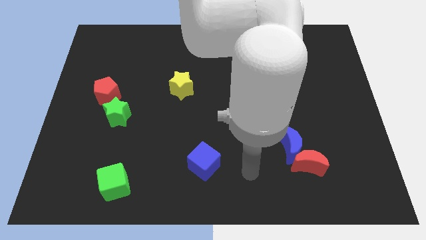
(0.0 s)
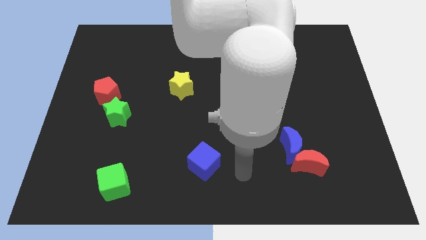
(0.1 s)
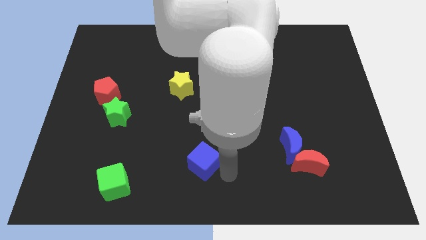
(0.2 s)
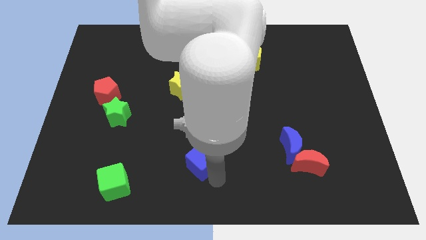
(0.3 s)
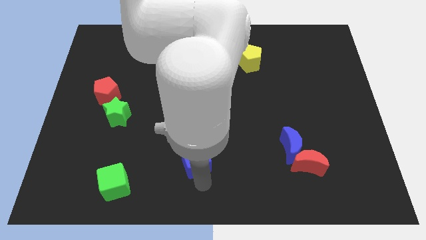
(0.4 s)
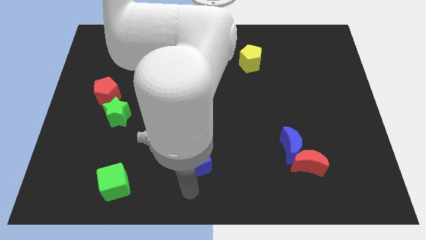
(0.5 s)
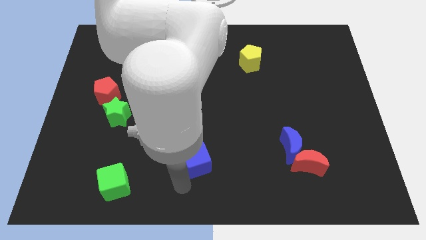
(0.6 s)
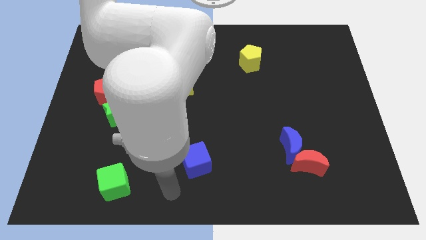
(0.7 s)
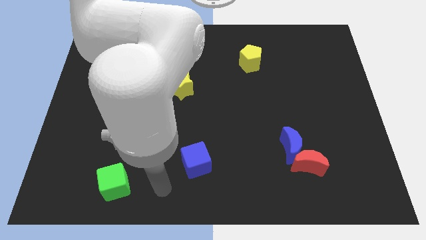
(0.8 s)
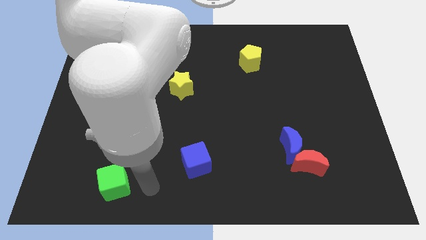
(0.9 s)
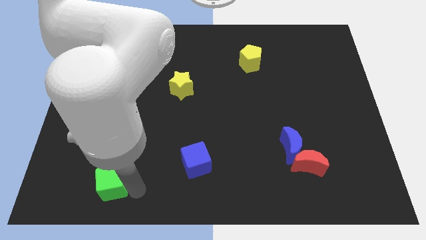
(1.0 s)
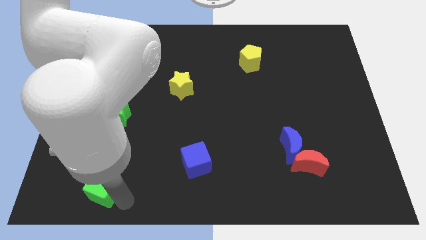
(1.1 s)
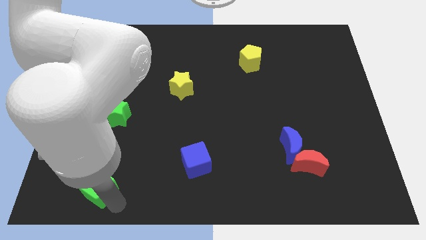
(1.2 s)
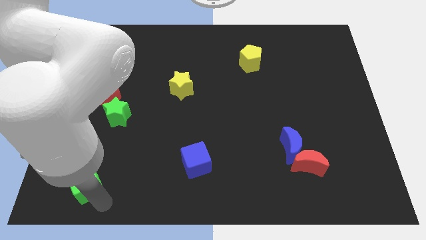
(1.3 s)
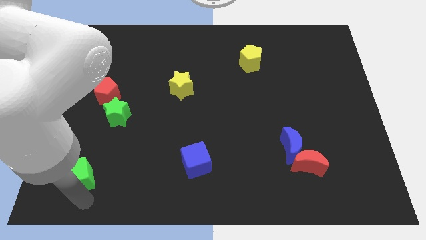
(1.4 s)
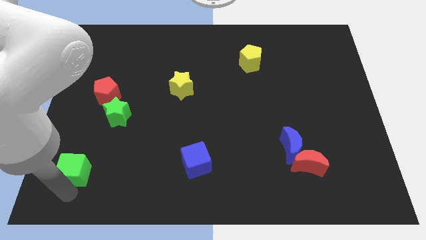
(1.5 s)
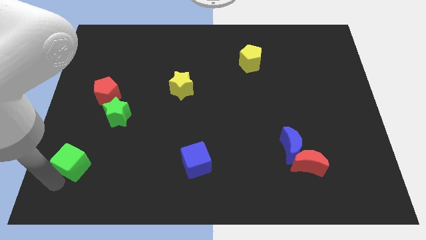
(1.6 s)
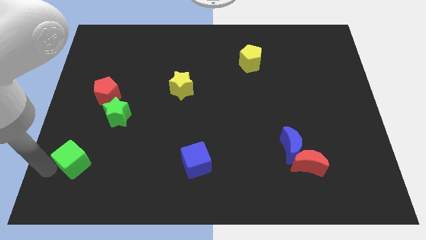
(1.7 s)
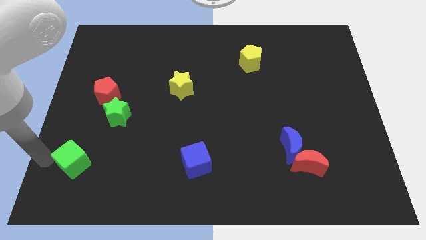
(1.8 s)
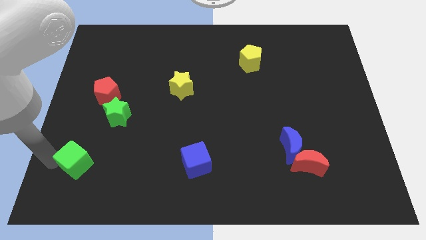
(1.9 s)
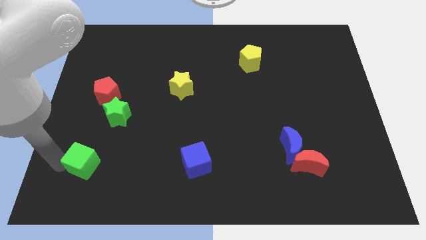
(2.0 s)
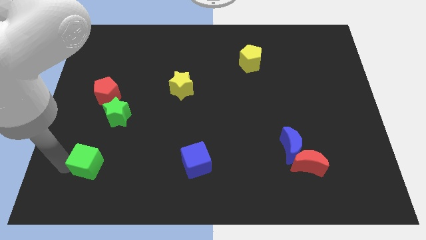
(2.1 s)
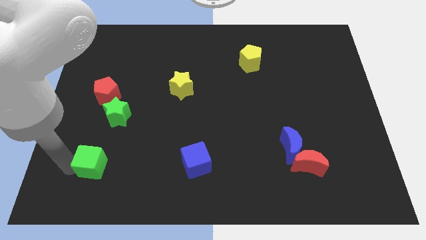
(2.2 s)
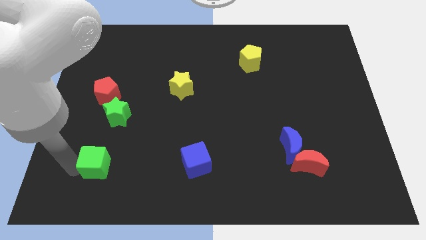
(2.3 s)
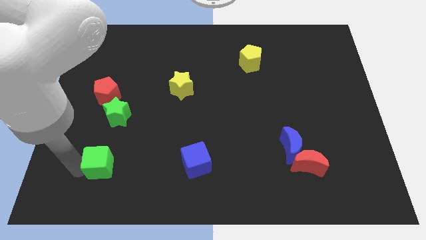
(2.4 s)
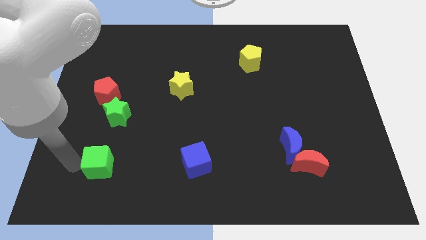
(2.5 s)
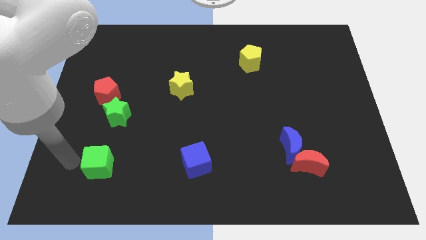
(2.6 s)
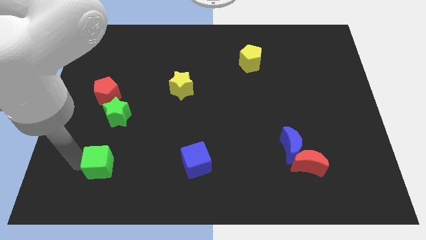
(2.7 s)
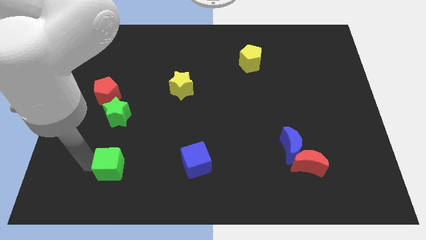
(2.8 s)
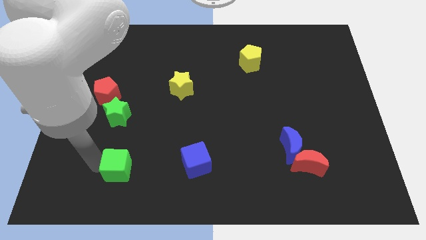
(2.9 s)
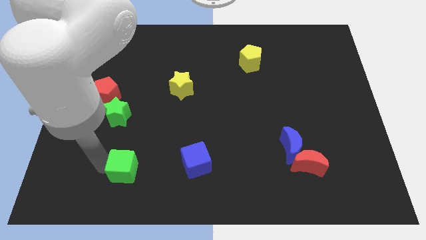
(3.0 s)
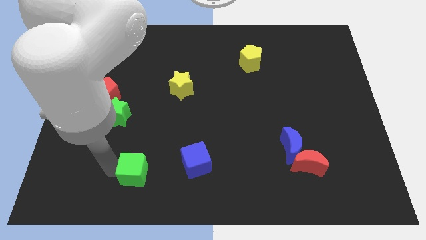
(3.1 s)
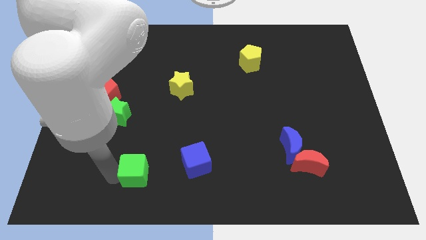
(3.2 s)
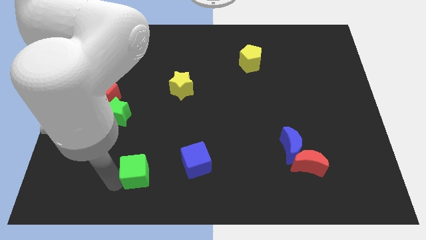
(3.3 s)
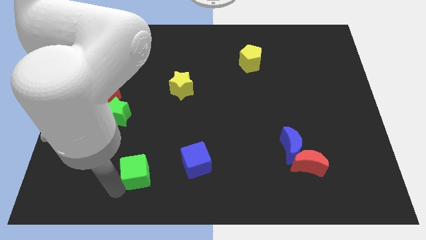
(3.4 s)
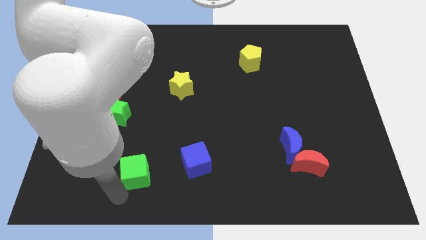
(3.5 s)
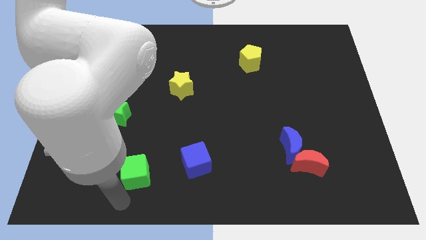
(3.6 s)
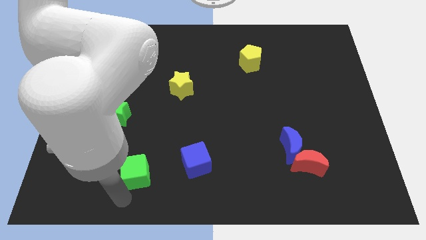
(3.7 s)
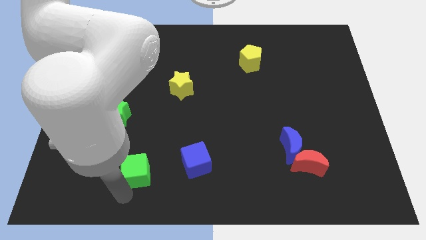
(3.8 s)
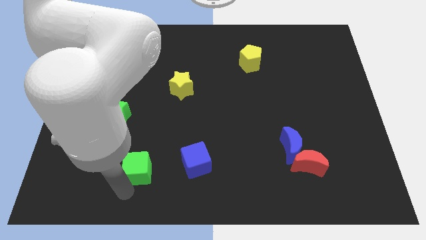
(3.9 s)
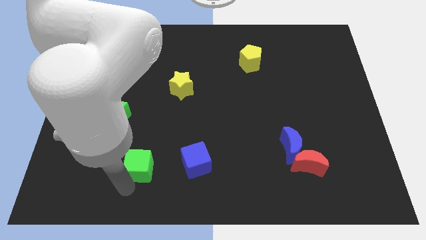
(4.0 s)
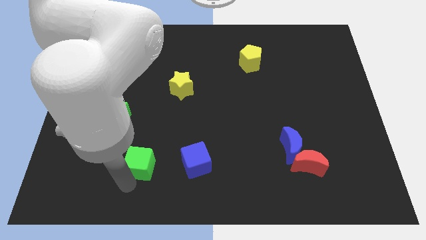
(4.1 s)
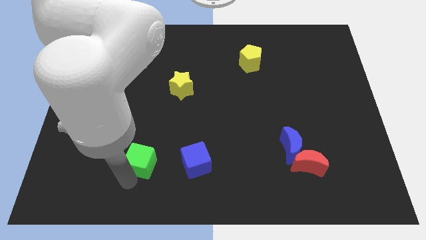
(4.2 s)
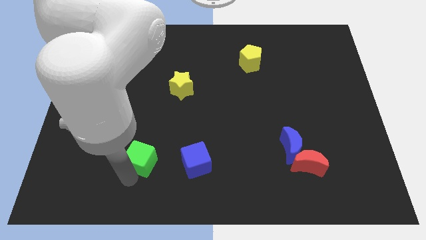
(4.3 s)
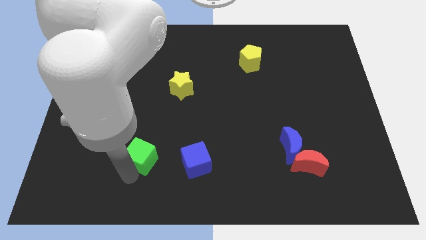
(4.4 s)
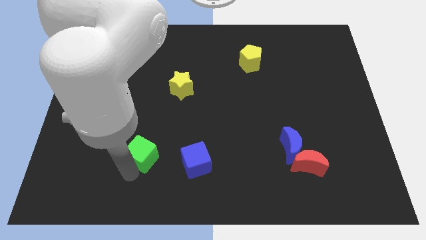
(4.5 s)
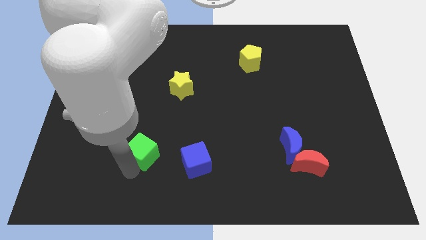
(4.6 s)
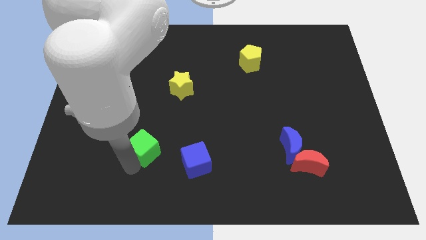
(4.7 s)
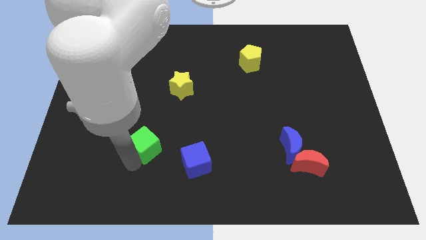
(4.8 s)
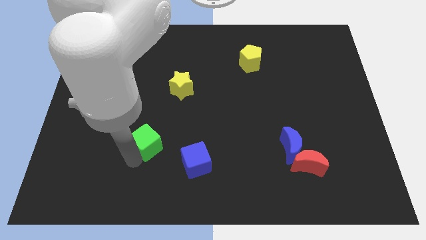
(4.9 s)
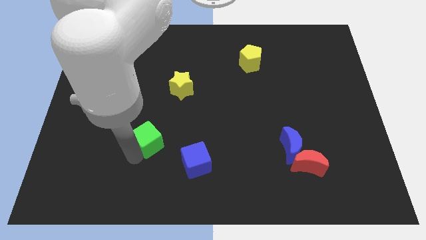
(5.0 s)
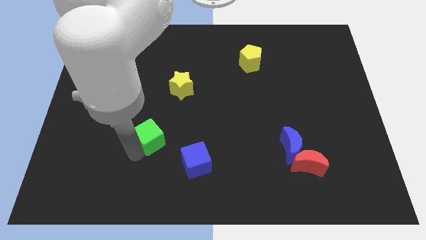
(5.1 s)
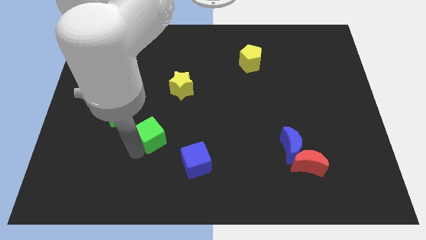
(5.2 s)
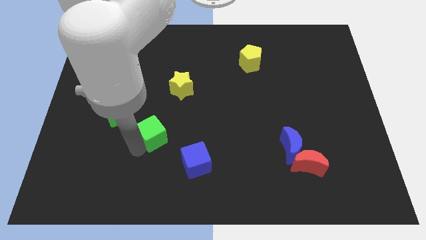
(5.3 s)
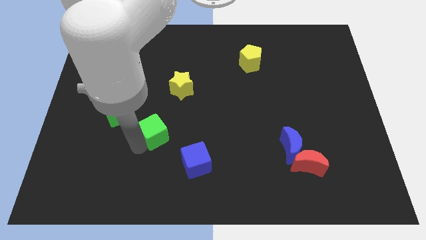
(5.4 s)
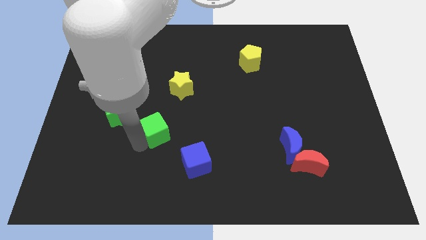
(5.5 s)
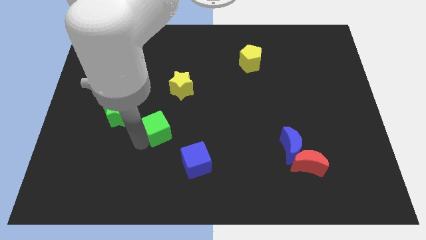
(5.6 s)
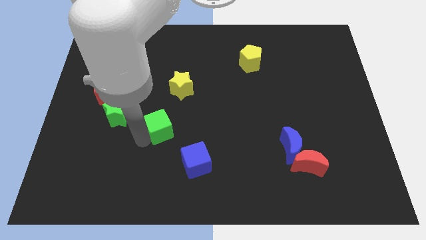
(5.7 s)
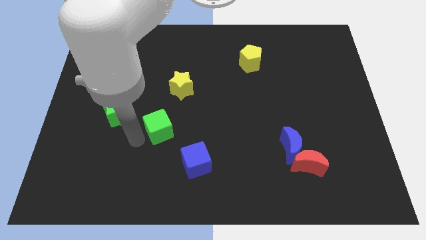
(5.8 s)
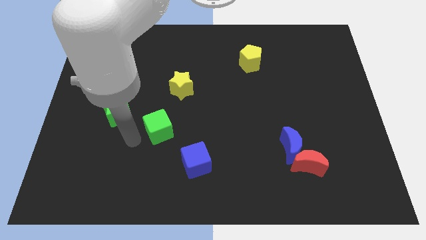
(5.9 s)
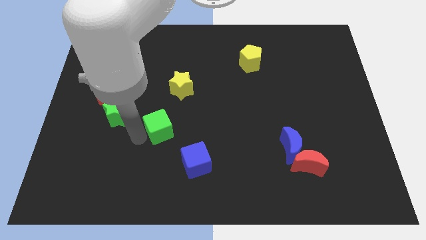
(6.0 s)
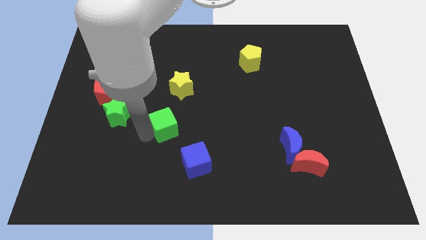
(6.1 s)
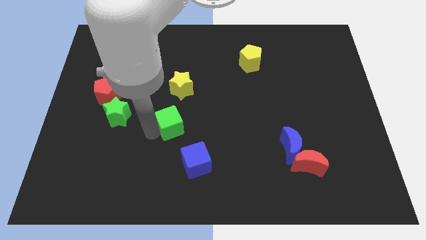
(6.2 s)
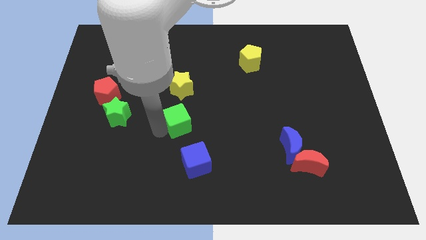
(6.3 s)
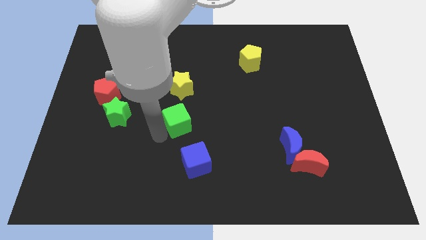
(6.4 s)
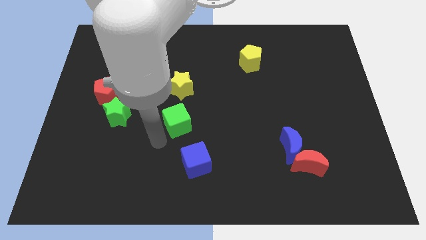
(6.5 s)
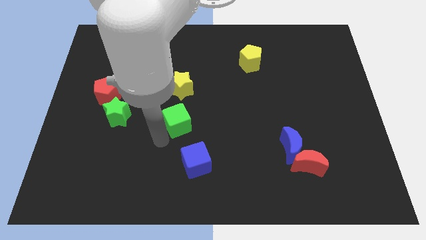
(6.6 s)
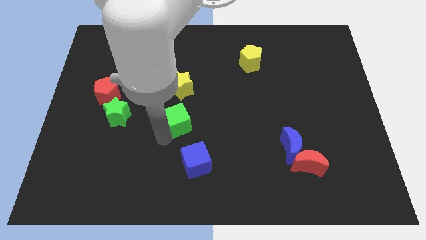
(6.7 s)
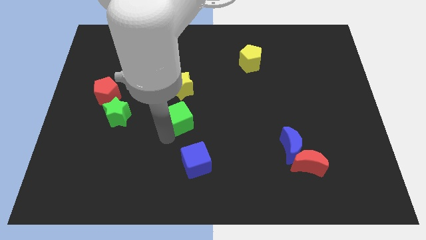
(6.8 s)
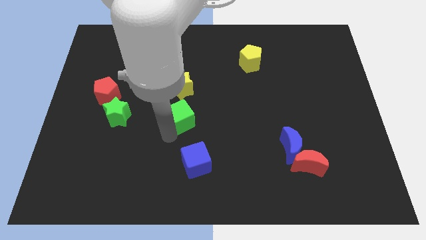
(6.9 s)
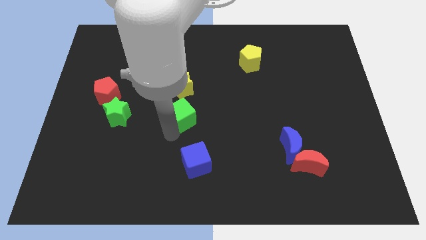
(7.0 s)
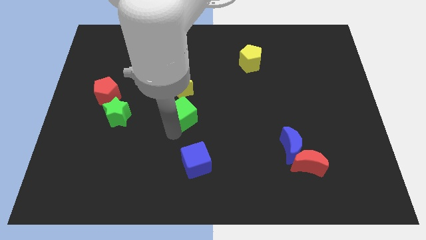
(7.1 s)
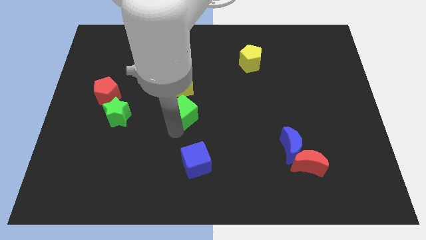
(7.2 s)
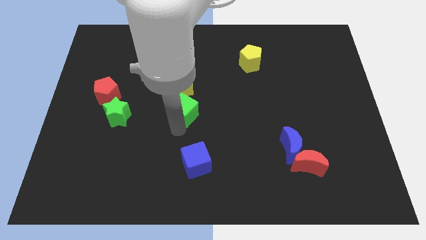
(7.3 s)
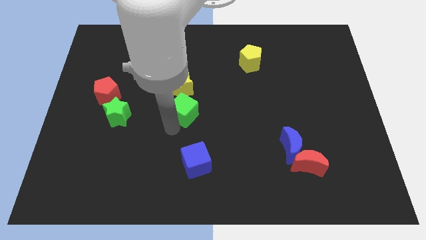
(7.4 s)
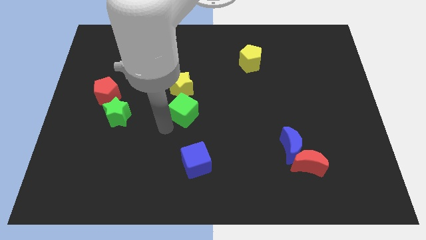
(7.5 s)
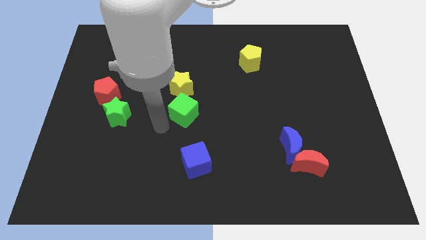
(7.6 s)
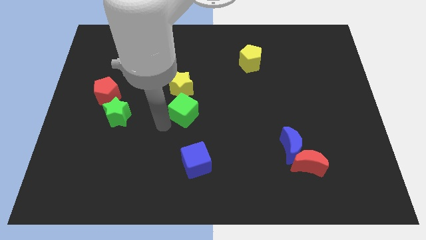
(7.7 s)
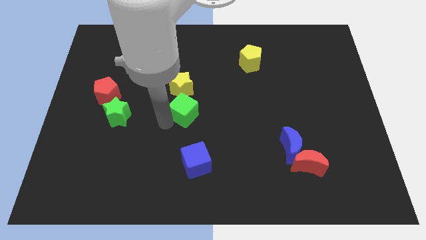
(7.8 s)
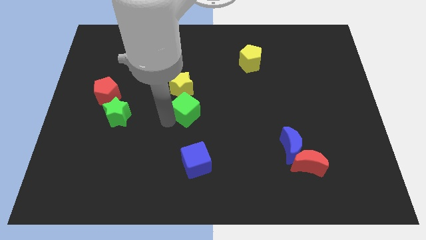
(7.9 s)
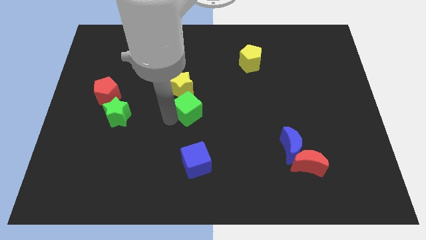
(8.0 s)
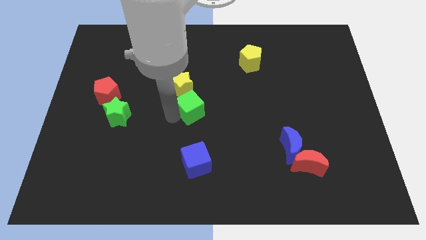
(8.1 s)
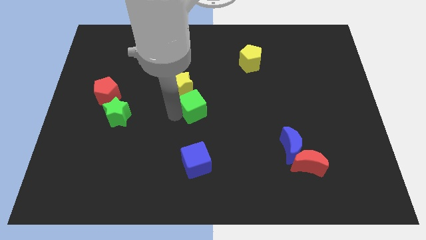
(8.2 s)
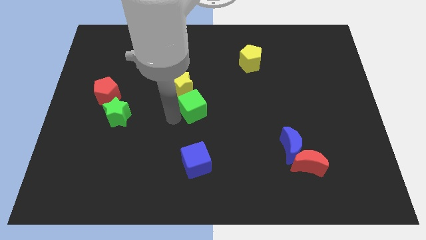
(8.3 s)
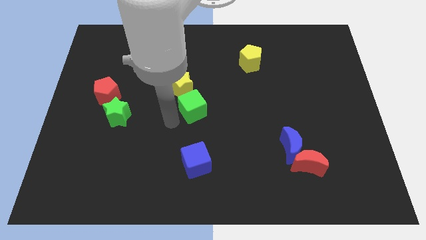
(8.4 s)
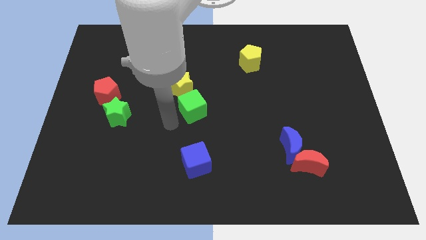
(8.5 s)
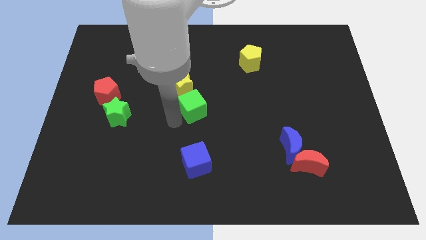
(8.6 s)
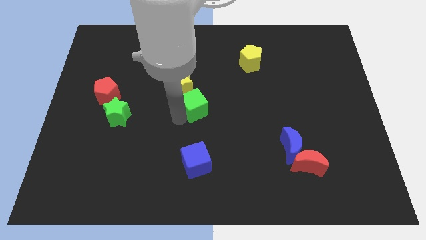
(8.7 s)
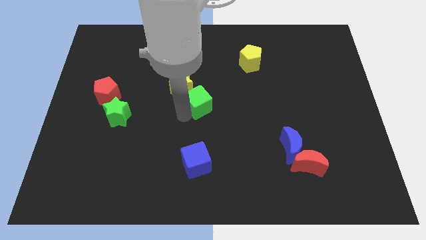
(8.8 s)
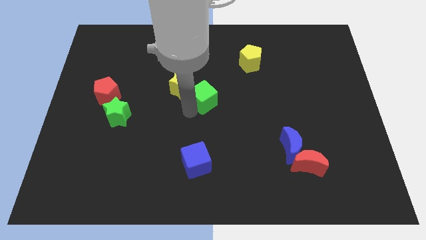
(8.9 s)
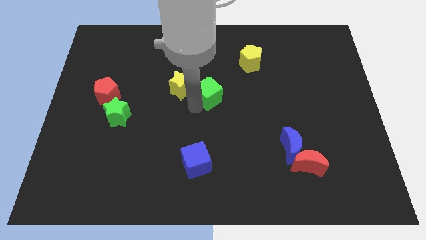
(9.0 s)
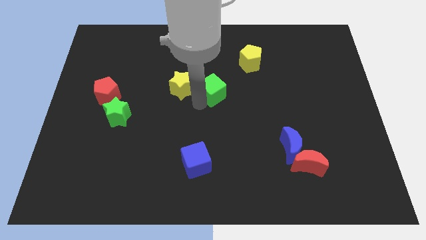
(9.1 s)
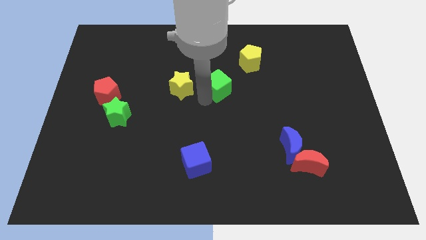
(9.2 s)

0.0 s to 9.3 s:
push the green cube diagonally down and to the left of the yellow pentagon
